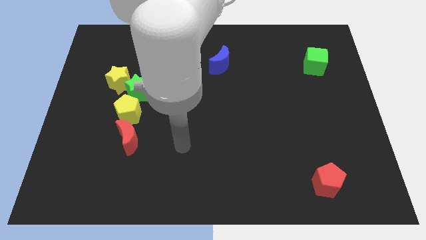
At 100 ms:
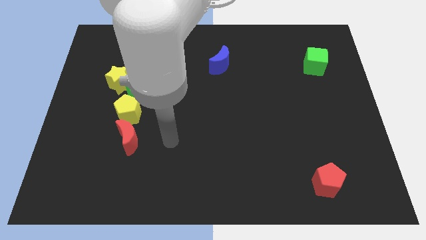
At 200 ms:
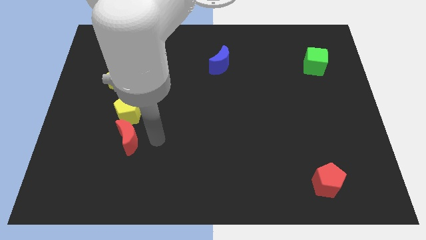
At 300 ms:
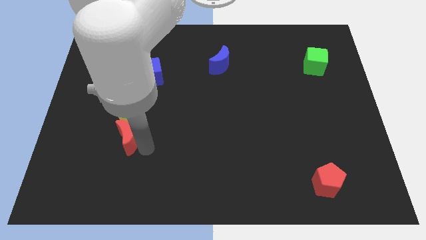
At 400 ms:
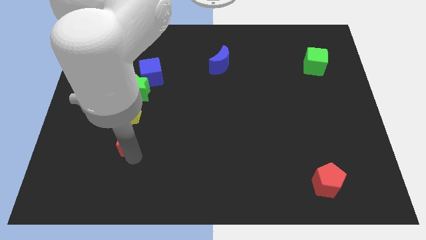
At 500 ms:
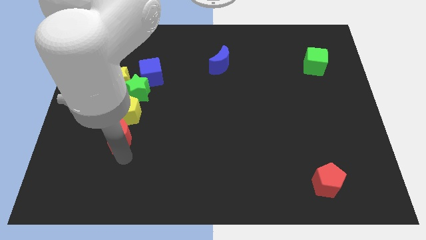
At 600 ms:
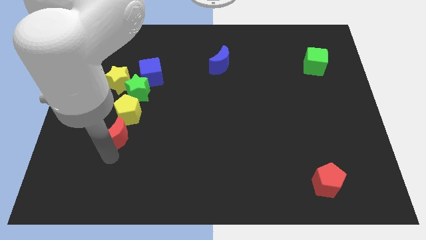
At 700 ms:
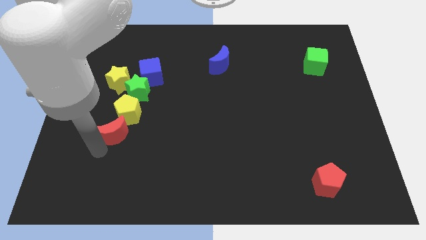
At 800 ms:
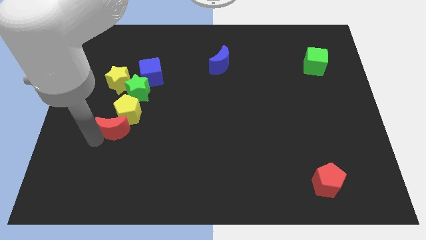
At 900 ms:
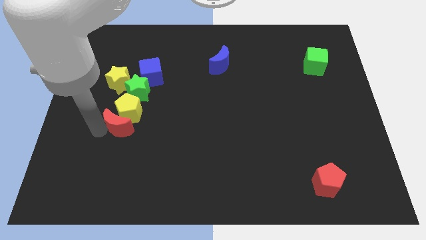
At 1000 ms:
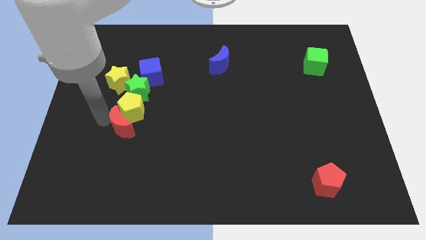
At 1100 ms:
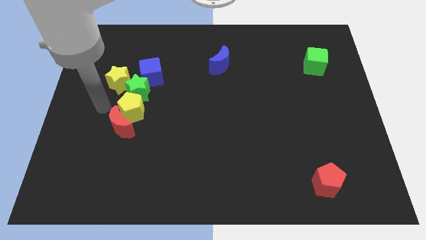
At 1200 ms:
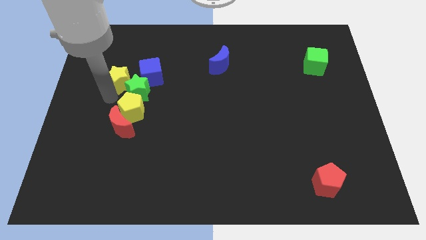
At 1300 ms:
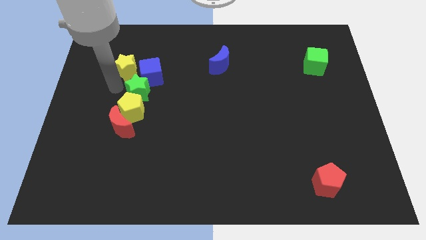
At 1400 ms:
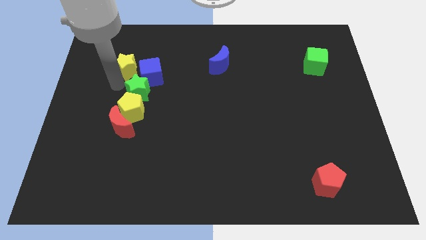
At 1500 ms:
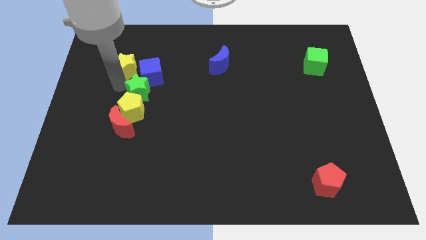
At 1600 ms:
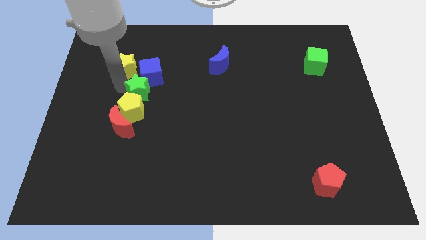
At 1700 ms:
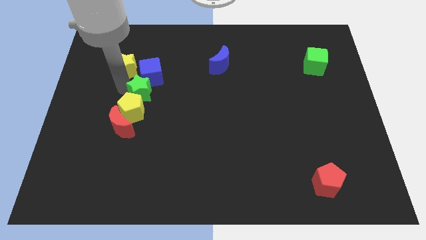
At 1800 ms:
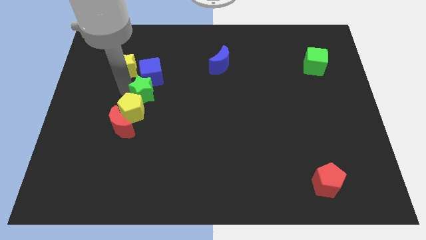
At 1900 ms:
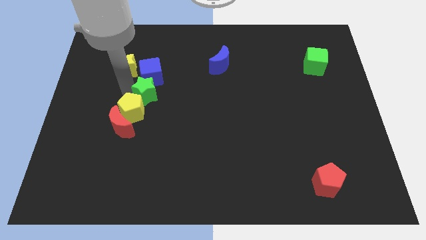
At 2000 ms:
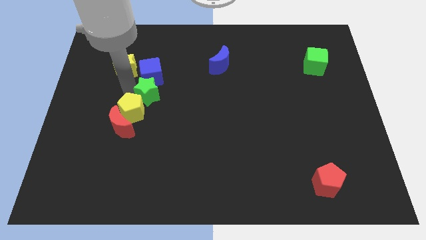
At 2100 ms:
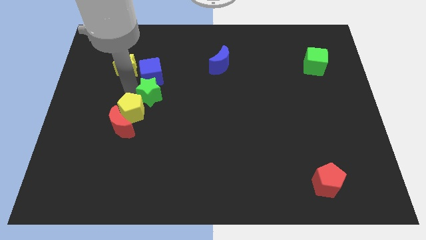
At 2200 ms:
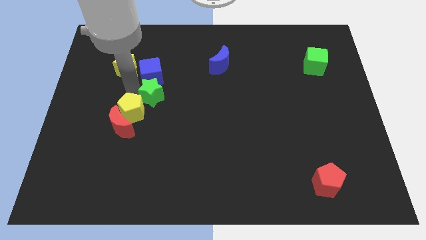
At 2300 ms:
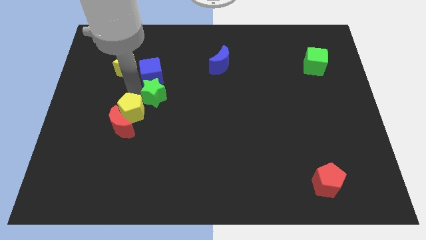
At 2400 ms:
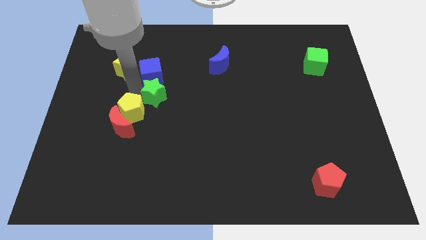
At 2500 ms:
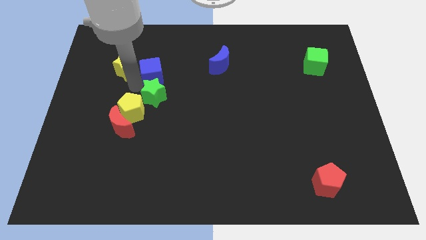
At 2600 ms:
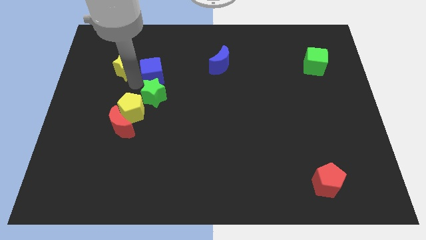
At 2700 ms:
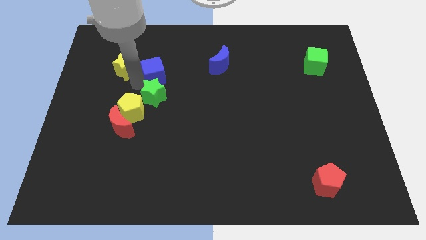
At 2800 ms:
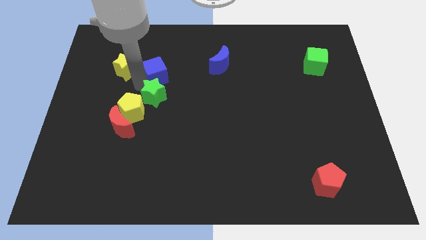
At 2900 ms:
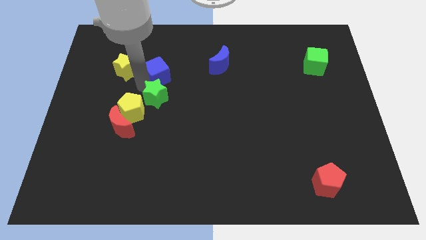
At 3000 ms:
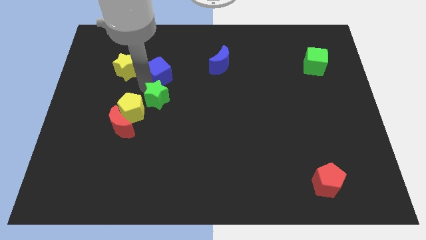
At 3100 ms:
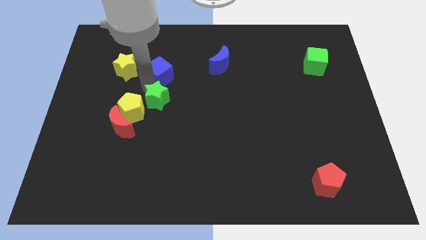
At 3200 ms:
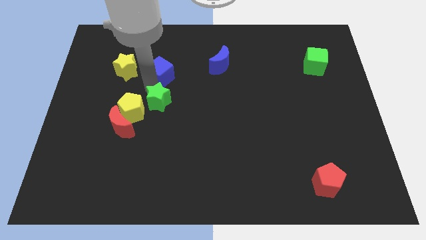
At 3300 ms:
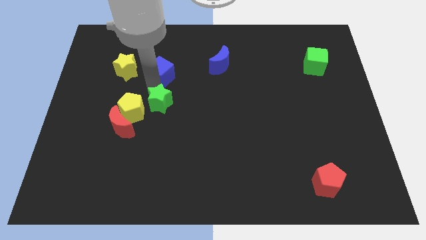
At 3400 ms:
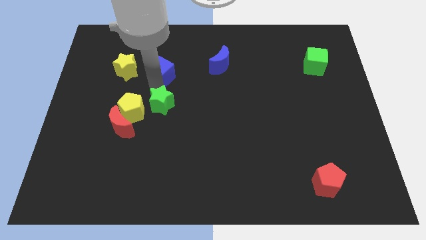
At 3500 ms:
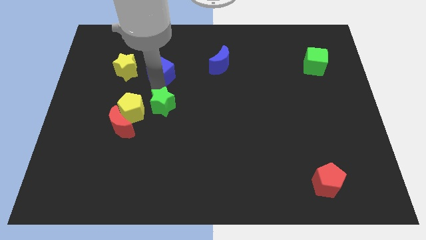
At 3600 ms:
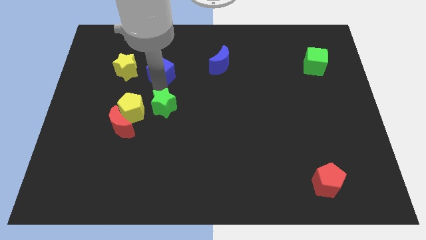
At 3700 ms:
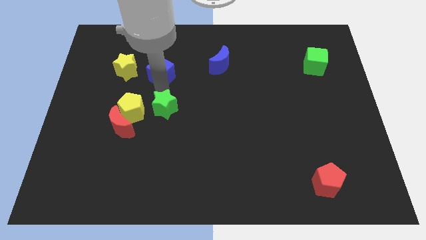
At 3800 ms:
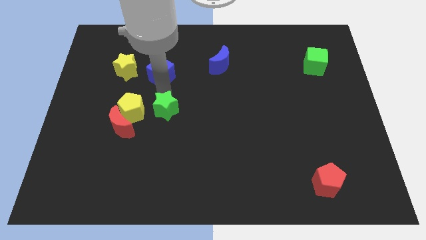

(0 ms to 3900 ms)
move the green star away from the clump

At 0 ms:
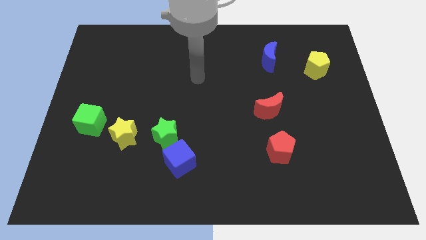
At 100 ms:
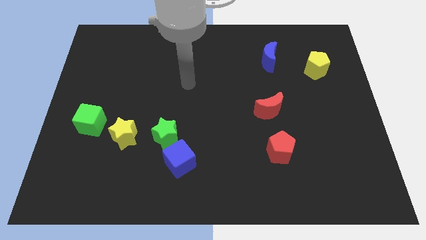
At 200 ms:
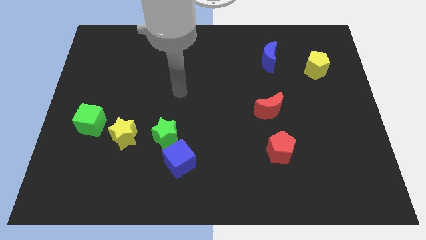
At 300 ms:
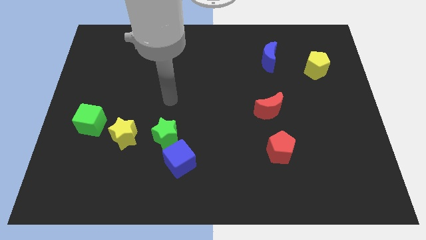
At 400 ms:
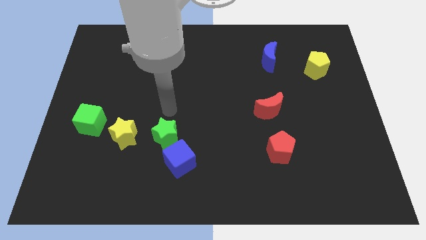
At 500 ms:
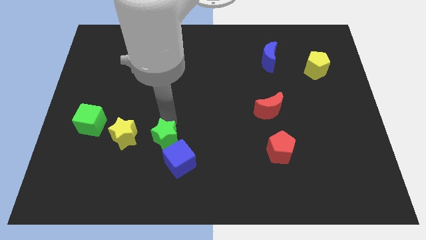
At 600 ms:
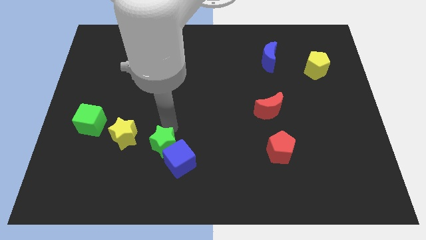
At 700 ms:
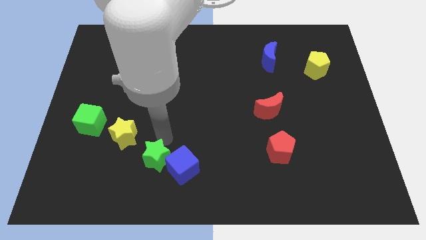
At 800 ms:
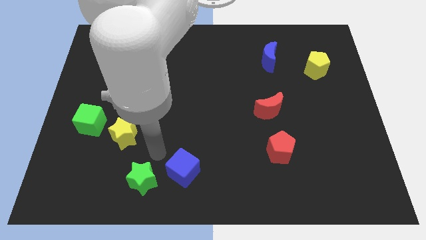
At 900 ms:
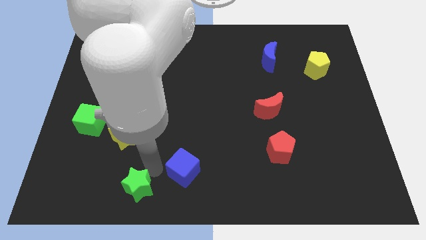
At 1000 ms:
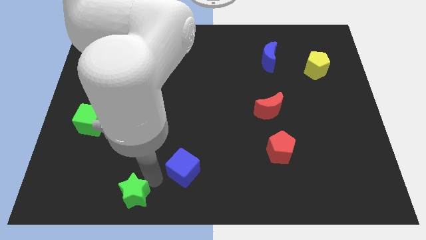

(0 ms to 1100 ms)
move the blue cube away from the green star

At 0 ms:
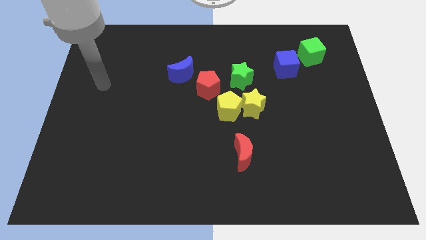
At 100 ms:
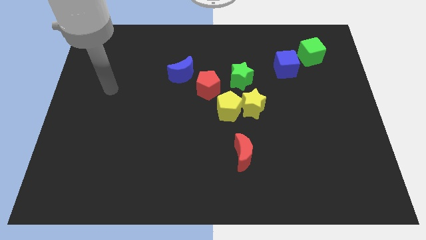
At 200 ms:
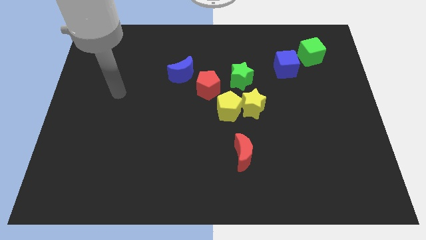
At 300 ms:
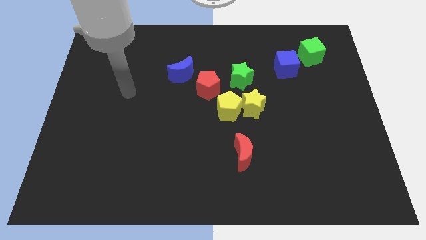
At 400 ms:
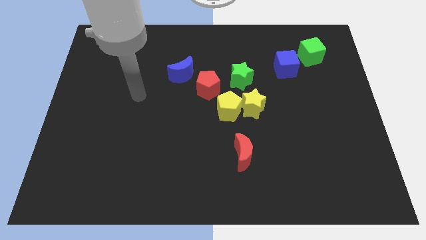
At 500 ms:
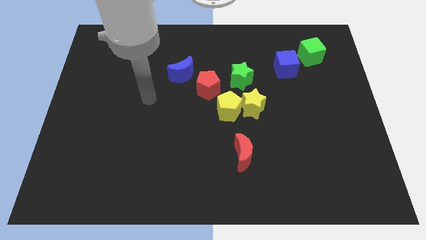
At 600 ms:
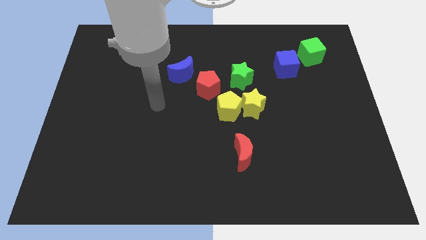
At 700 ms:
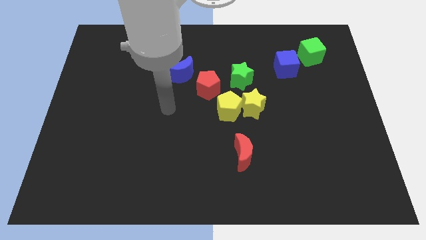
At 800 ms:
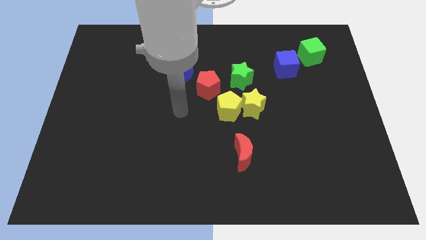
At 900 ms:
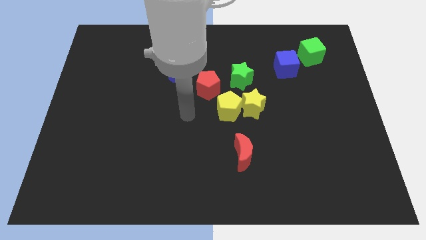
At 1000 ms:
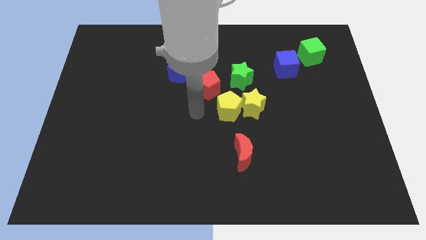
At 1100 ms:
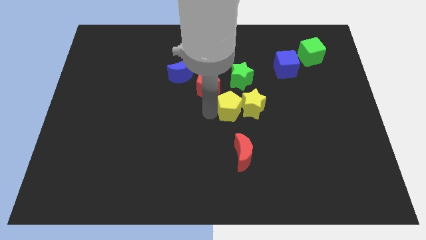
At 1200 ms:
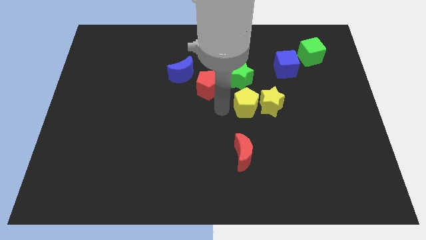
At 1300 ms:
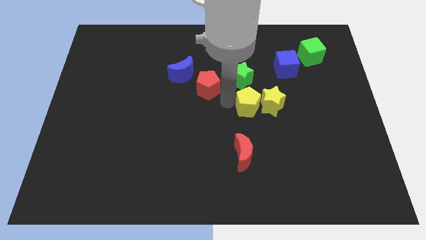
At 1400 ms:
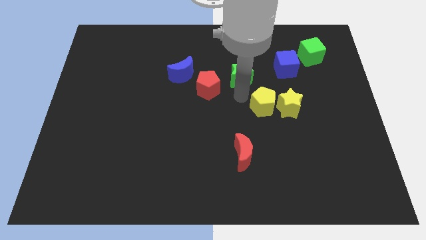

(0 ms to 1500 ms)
separate the yellow star from the yellow pentagon and green star

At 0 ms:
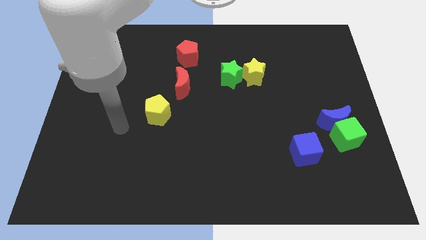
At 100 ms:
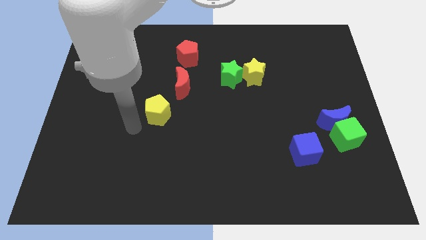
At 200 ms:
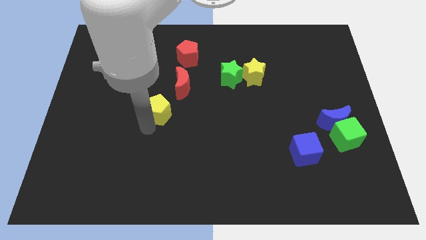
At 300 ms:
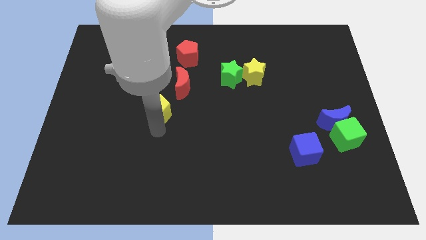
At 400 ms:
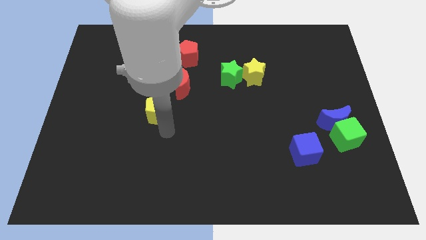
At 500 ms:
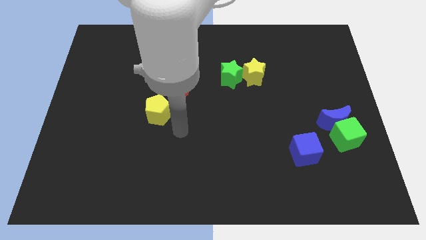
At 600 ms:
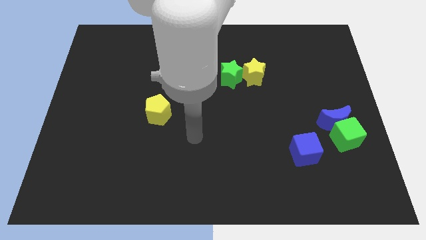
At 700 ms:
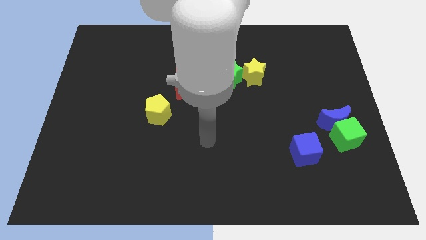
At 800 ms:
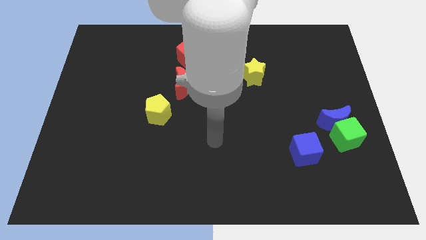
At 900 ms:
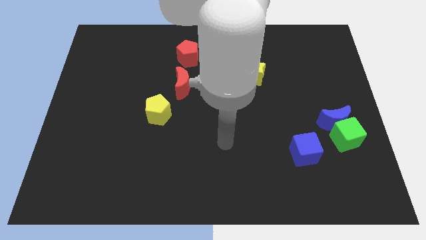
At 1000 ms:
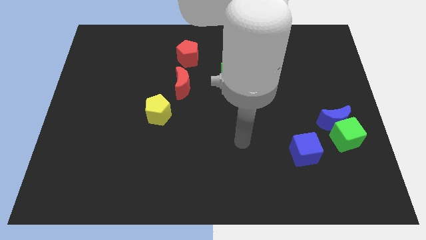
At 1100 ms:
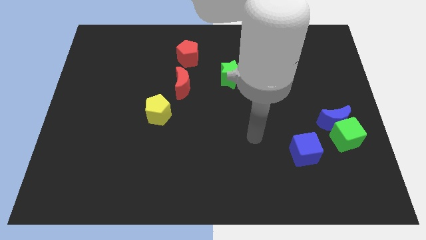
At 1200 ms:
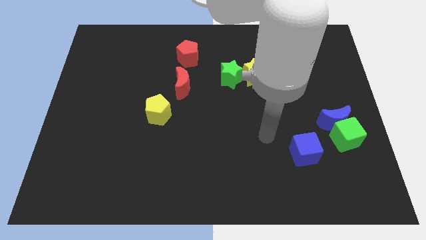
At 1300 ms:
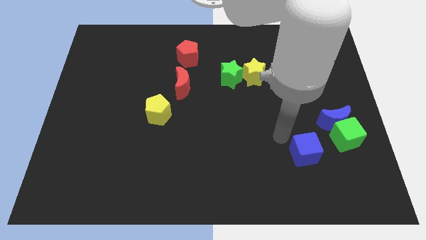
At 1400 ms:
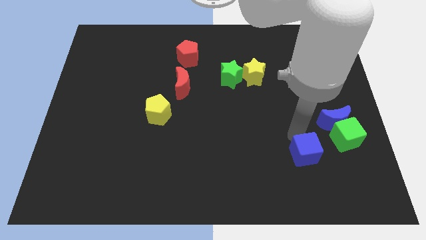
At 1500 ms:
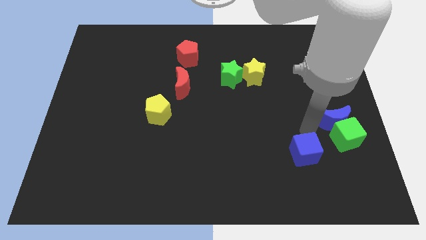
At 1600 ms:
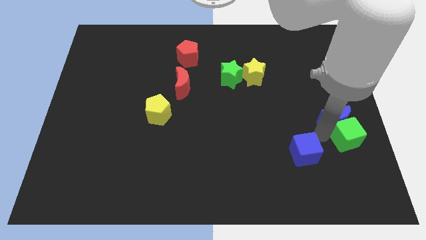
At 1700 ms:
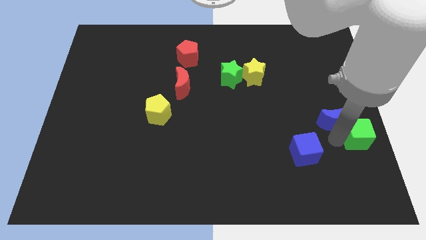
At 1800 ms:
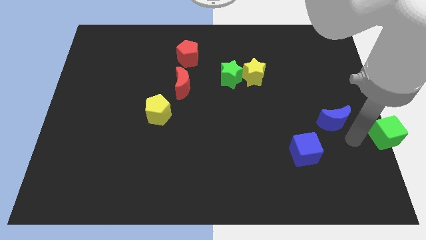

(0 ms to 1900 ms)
move the blue moon away from the green cube

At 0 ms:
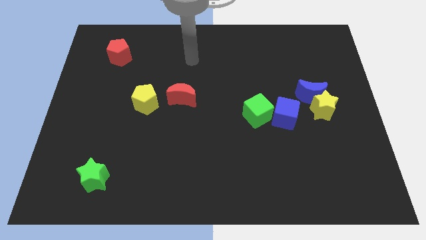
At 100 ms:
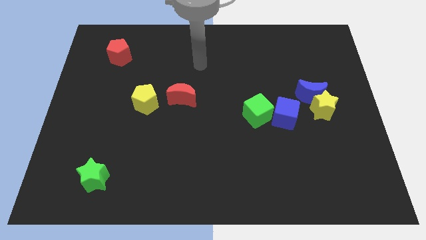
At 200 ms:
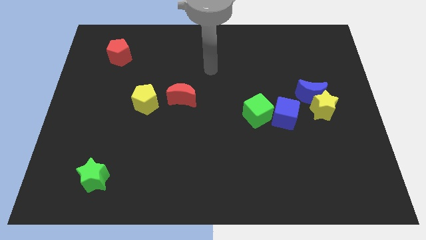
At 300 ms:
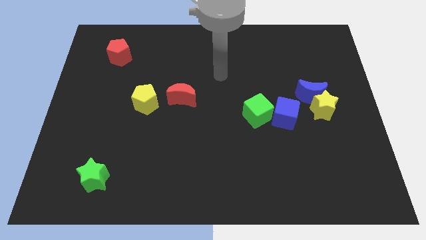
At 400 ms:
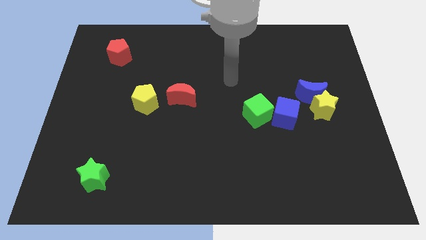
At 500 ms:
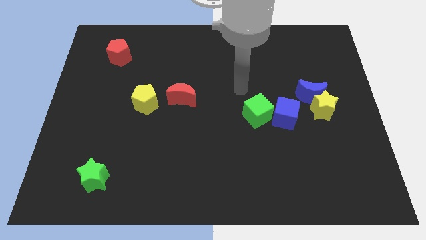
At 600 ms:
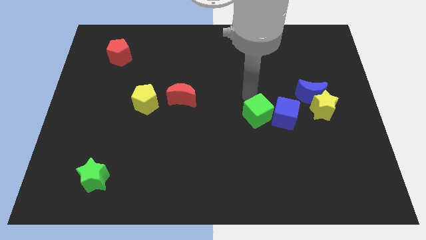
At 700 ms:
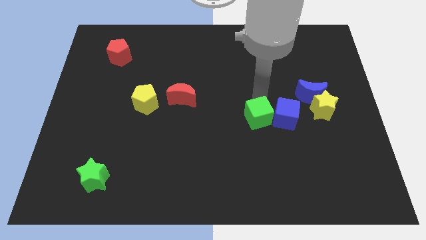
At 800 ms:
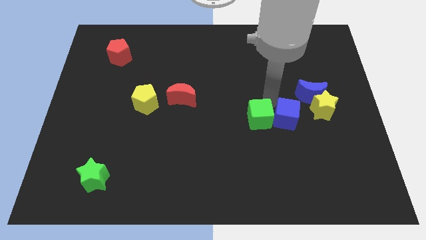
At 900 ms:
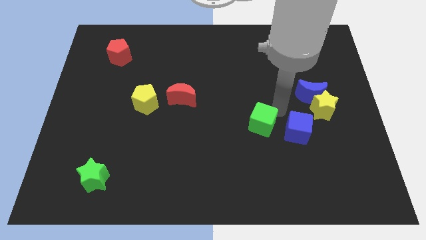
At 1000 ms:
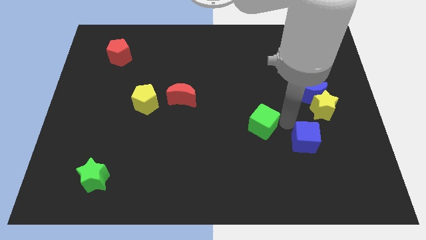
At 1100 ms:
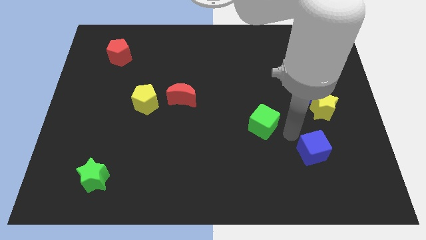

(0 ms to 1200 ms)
separate the green cube from the blue cube
